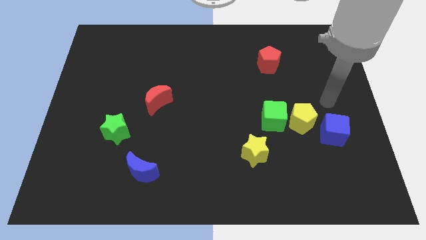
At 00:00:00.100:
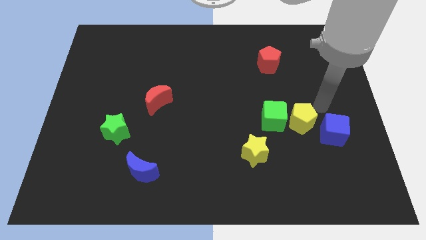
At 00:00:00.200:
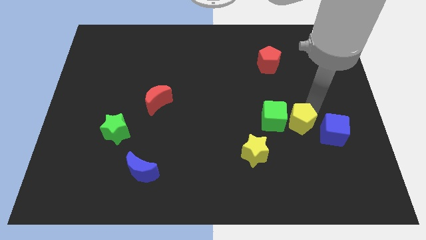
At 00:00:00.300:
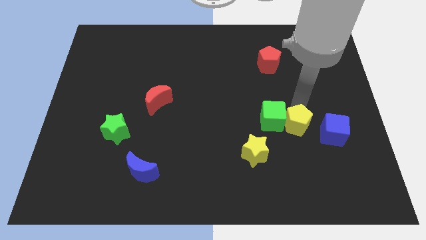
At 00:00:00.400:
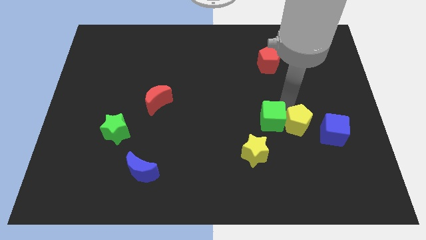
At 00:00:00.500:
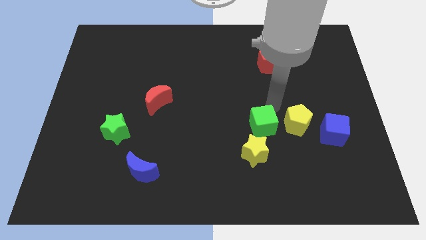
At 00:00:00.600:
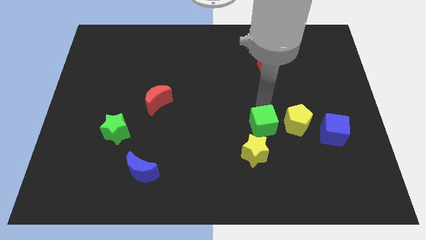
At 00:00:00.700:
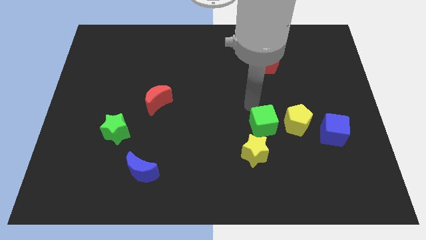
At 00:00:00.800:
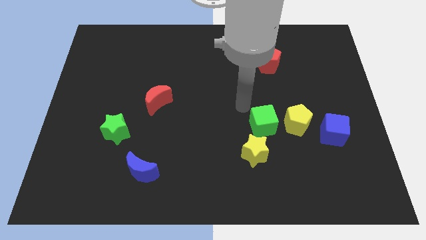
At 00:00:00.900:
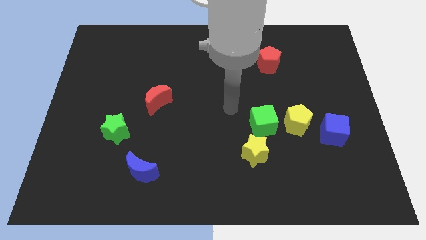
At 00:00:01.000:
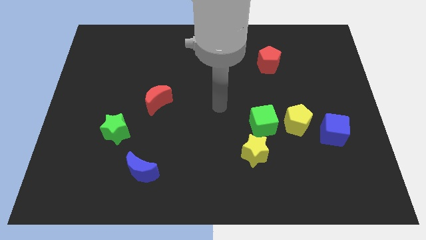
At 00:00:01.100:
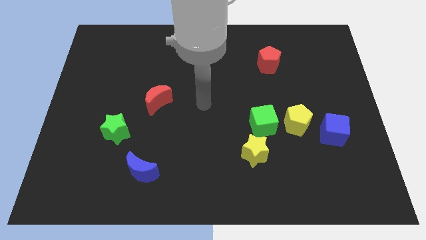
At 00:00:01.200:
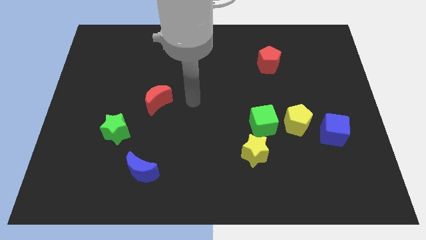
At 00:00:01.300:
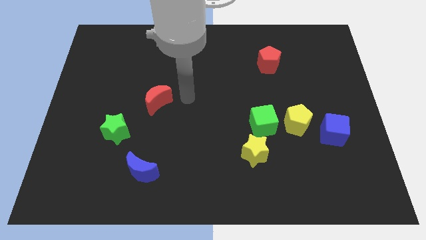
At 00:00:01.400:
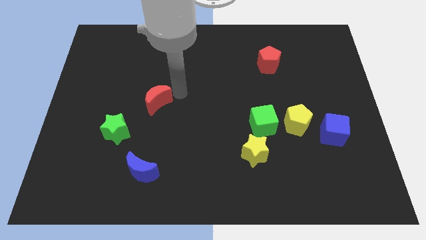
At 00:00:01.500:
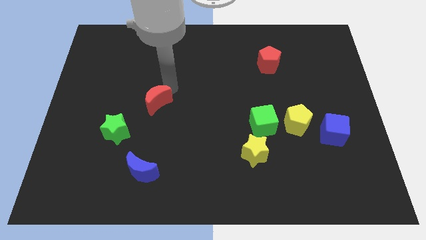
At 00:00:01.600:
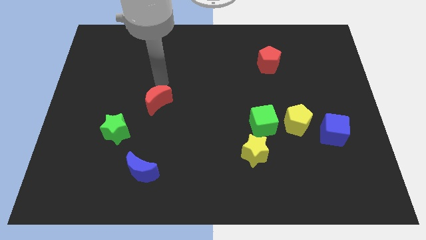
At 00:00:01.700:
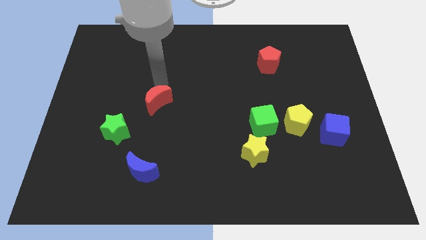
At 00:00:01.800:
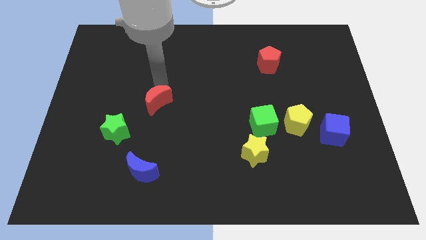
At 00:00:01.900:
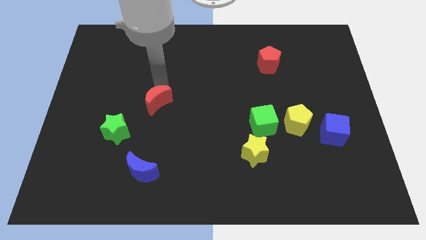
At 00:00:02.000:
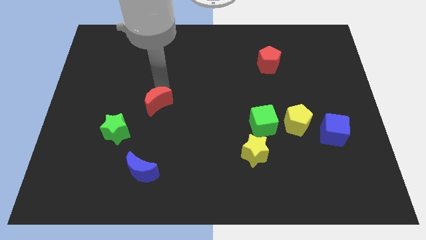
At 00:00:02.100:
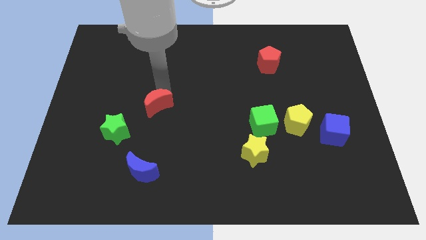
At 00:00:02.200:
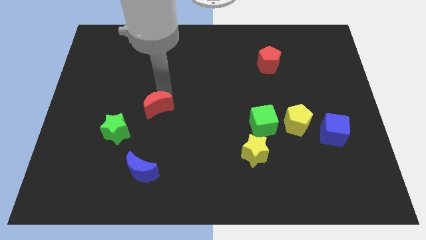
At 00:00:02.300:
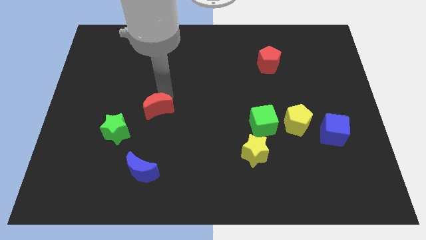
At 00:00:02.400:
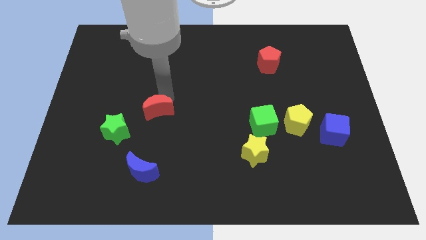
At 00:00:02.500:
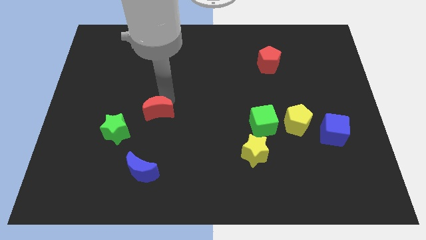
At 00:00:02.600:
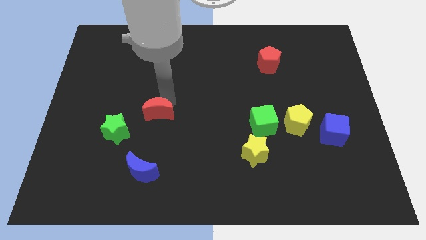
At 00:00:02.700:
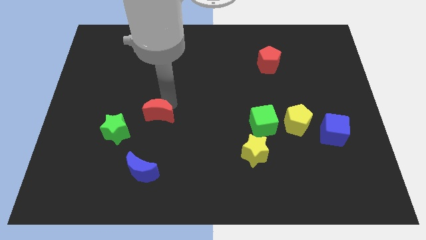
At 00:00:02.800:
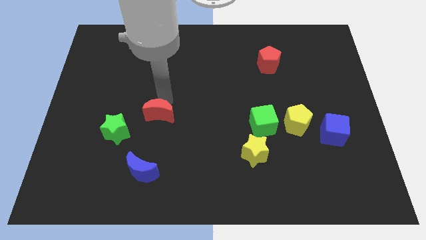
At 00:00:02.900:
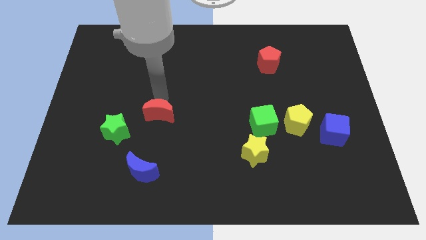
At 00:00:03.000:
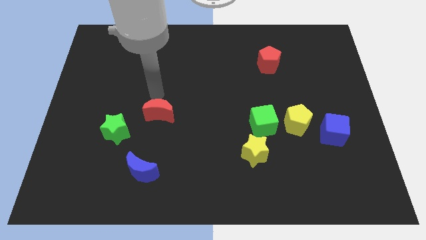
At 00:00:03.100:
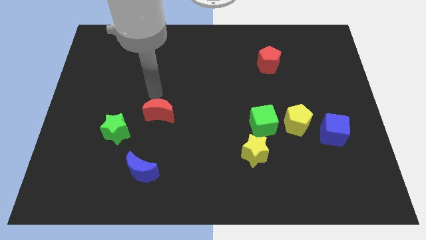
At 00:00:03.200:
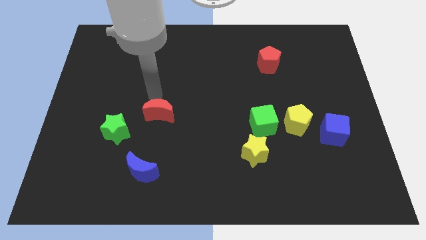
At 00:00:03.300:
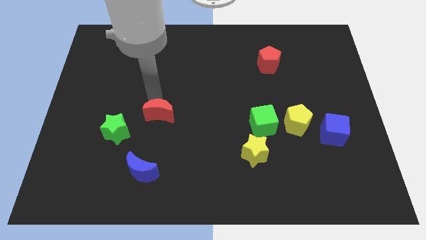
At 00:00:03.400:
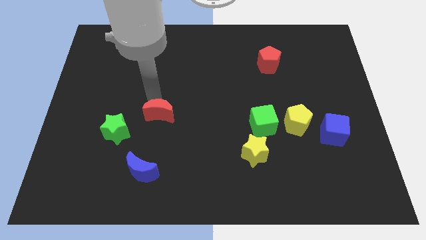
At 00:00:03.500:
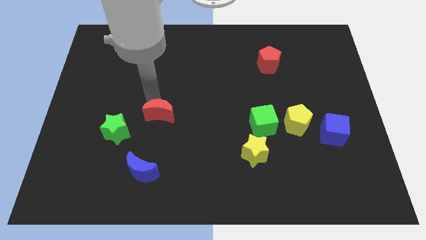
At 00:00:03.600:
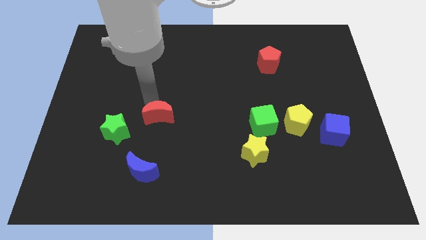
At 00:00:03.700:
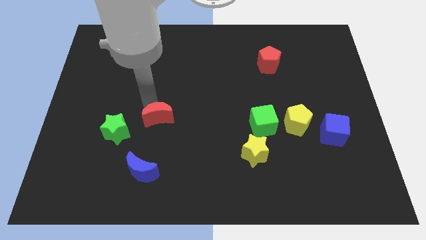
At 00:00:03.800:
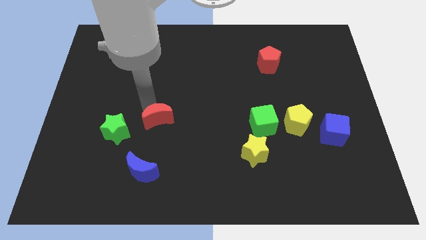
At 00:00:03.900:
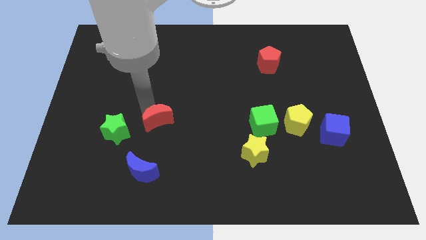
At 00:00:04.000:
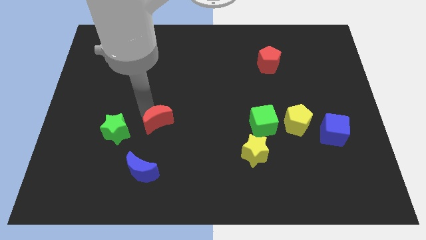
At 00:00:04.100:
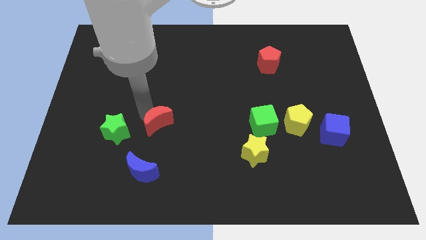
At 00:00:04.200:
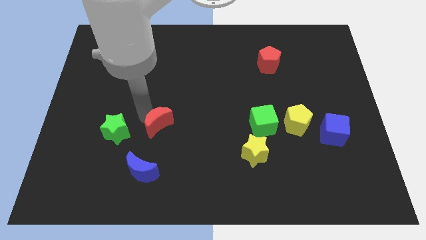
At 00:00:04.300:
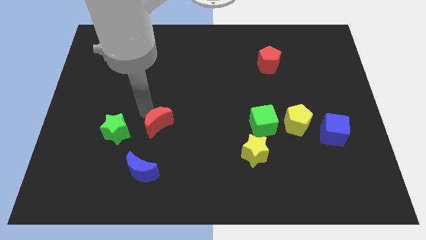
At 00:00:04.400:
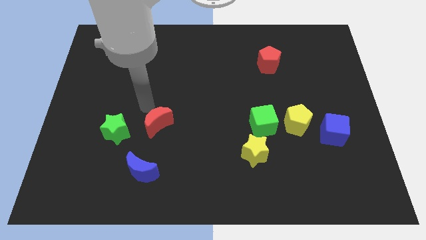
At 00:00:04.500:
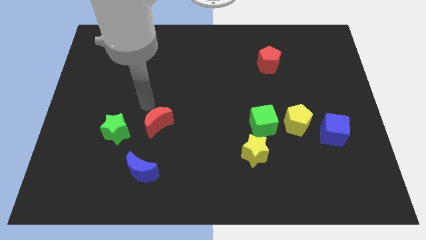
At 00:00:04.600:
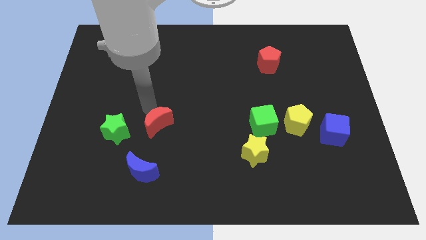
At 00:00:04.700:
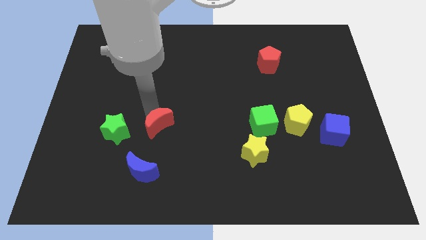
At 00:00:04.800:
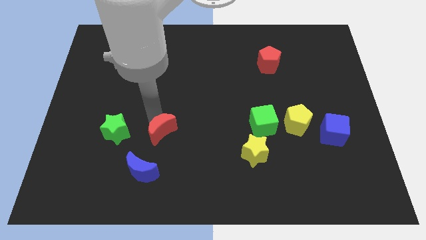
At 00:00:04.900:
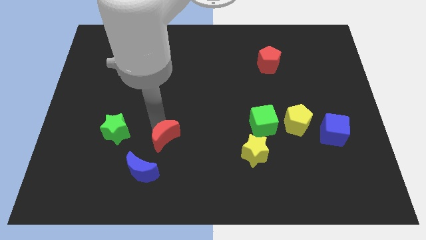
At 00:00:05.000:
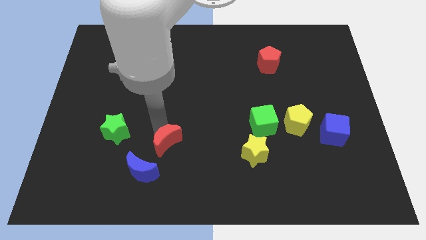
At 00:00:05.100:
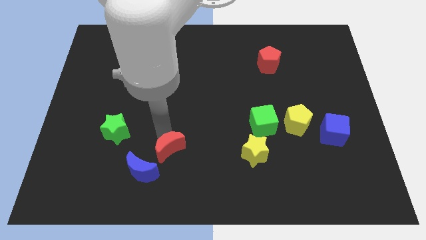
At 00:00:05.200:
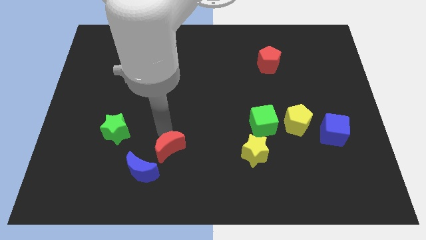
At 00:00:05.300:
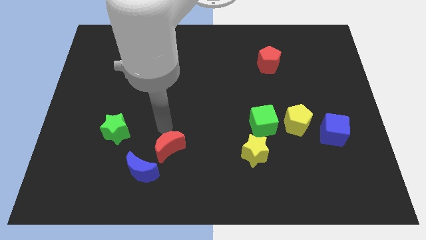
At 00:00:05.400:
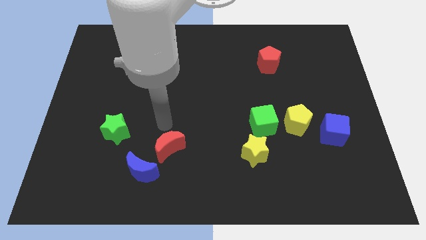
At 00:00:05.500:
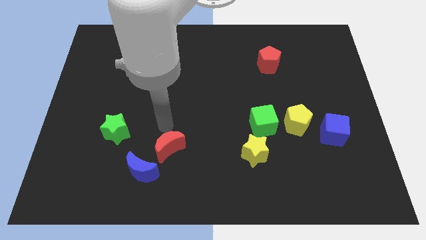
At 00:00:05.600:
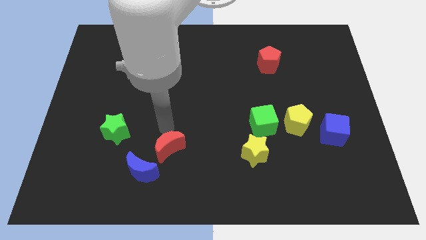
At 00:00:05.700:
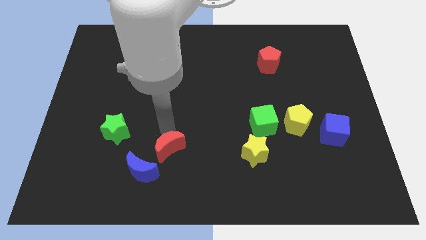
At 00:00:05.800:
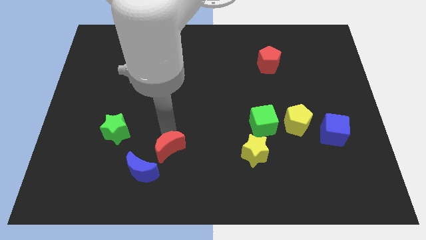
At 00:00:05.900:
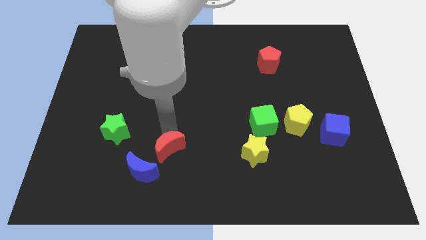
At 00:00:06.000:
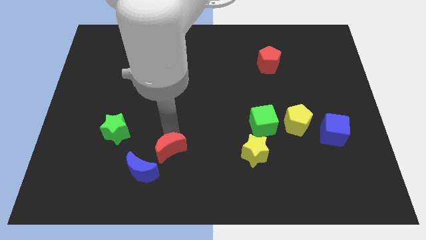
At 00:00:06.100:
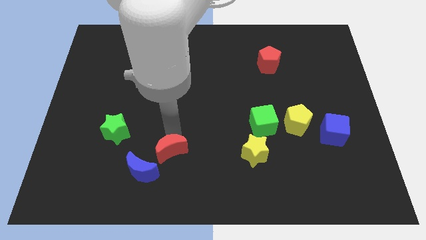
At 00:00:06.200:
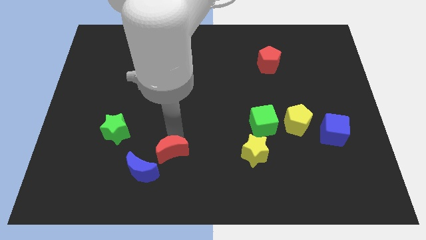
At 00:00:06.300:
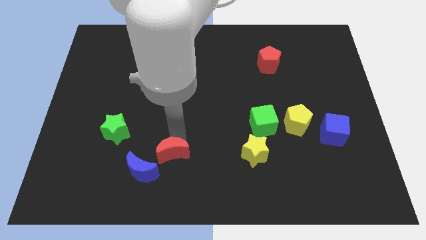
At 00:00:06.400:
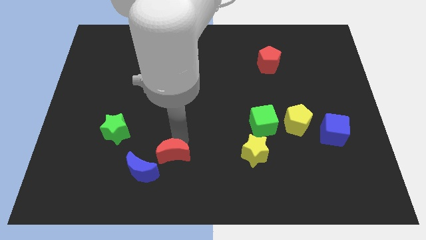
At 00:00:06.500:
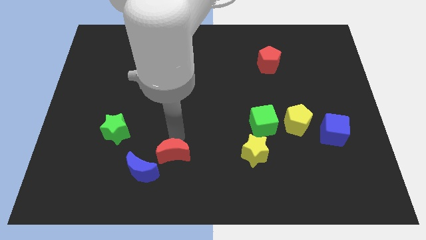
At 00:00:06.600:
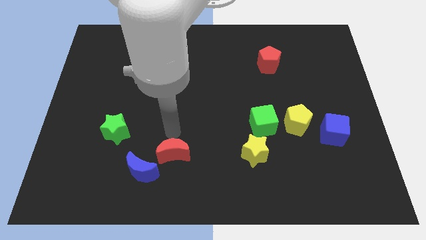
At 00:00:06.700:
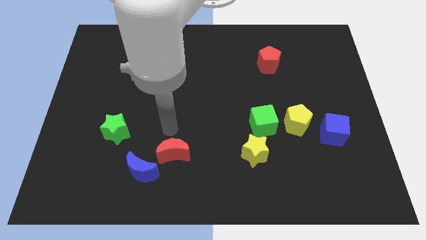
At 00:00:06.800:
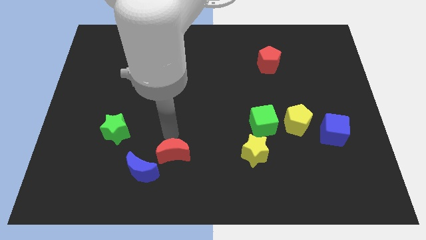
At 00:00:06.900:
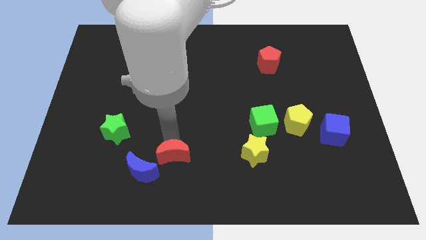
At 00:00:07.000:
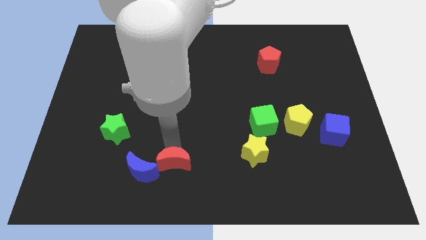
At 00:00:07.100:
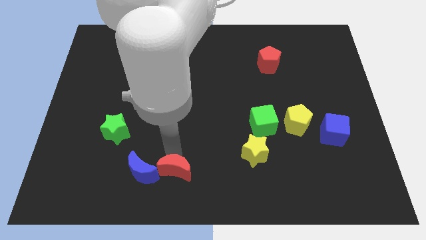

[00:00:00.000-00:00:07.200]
put the red moon to the bottom
